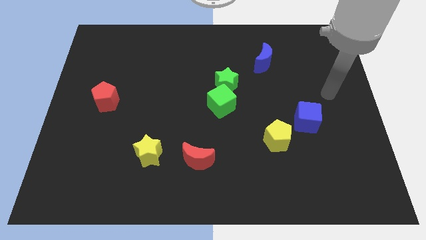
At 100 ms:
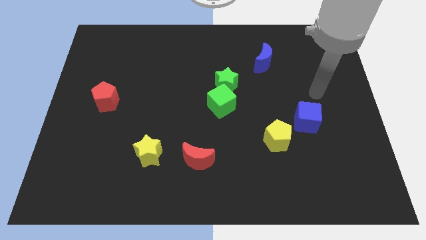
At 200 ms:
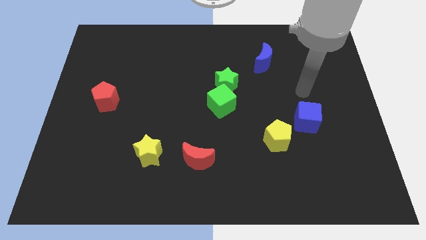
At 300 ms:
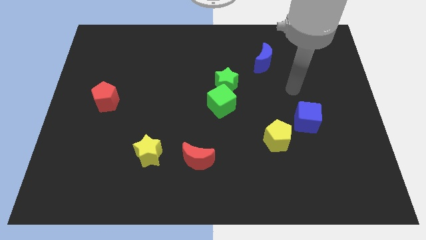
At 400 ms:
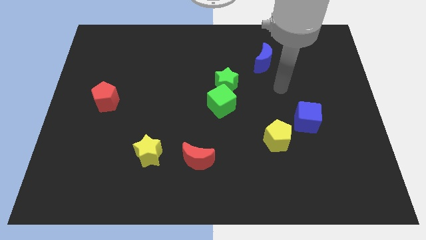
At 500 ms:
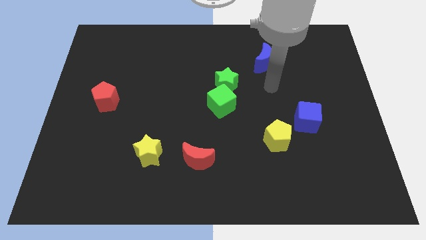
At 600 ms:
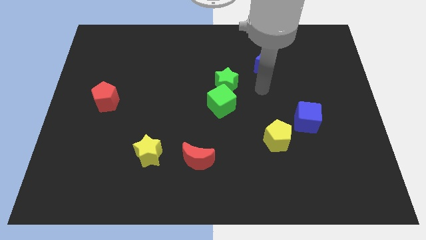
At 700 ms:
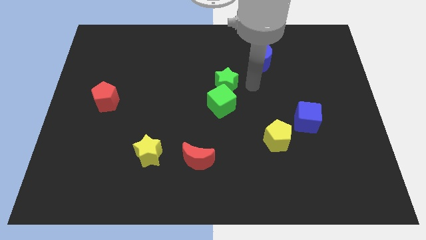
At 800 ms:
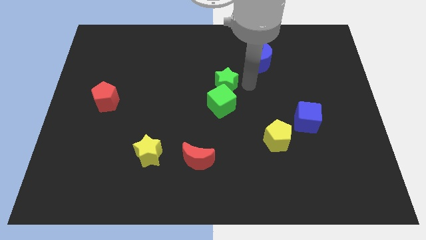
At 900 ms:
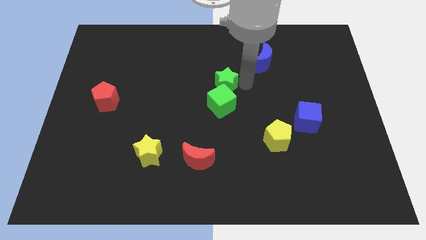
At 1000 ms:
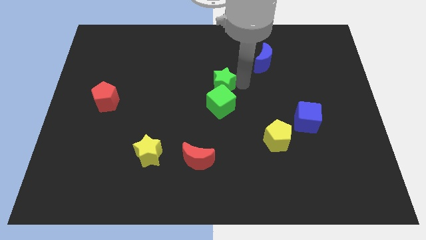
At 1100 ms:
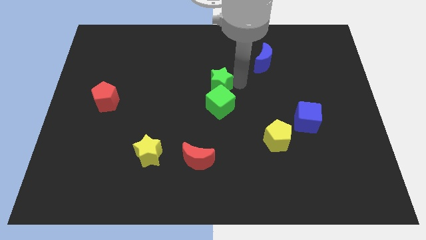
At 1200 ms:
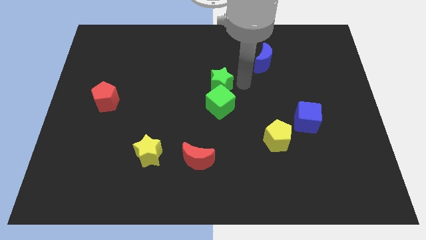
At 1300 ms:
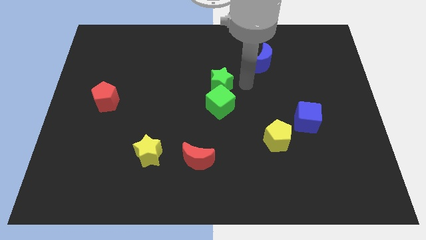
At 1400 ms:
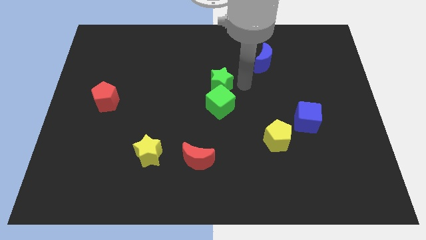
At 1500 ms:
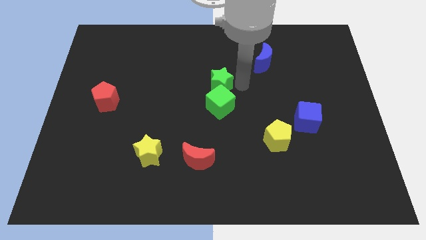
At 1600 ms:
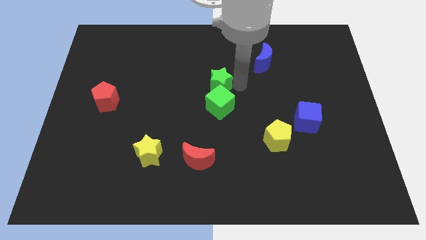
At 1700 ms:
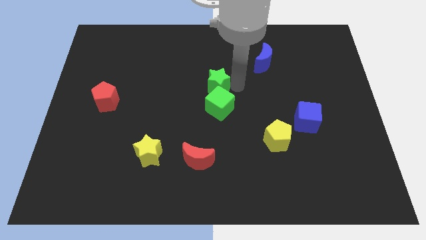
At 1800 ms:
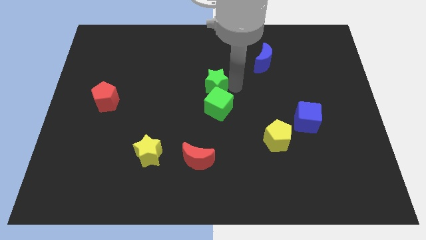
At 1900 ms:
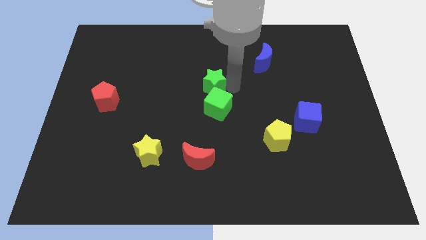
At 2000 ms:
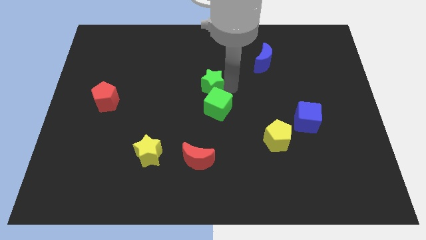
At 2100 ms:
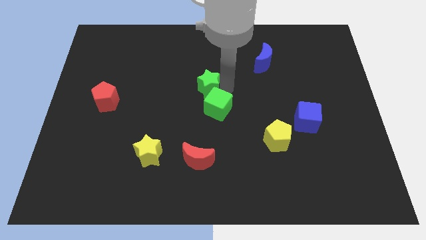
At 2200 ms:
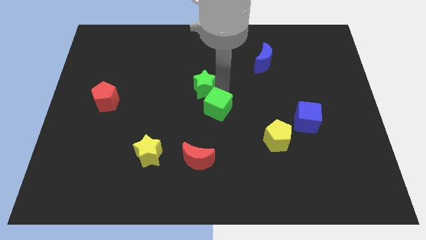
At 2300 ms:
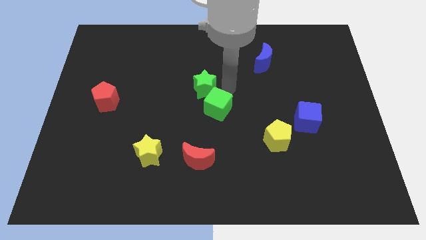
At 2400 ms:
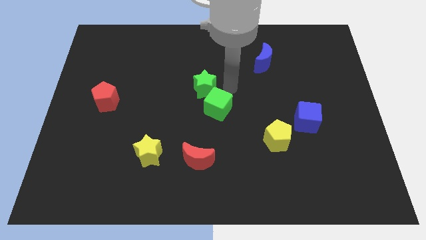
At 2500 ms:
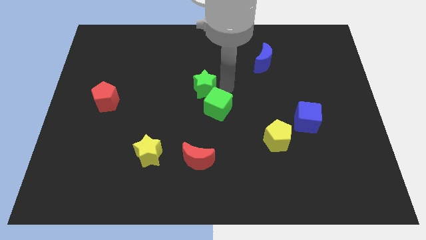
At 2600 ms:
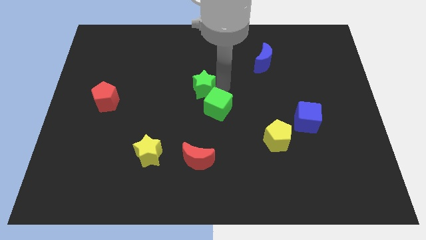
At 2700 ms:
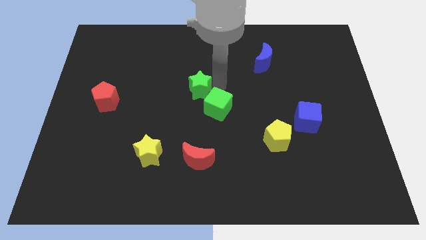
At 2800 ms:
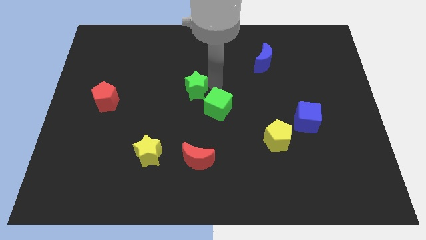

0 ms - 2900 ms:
push the green star to the left slightly

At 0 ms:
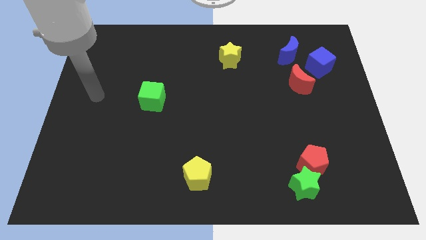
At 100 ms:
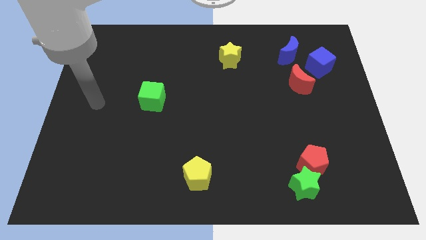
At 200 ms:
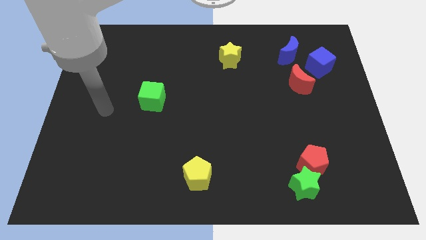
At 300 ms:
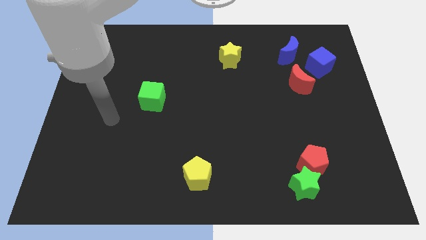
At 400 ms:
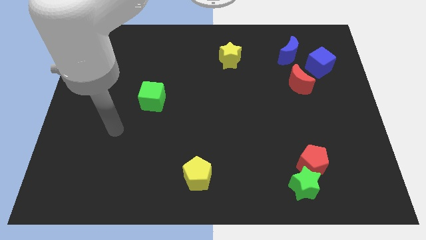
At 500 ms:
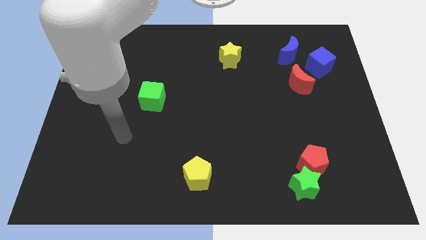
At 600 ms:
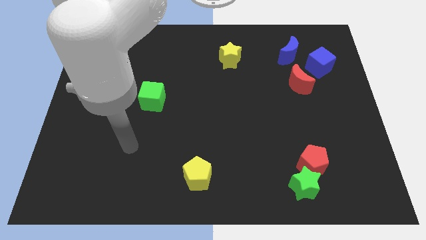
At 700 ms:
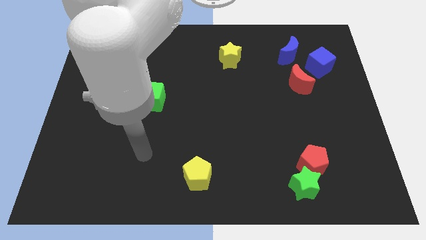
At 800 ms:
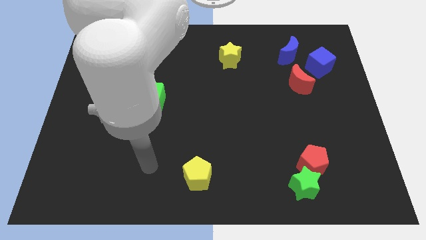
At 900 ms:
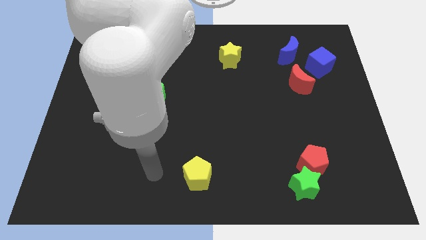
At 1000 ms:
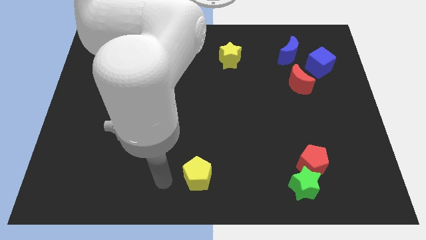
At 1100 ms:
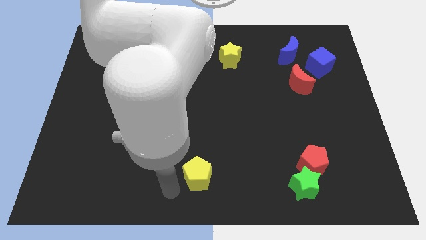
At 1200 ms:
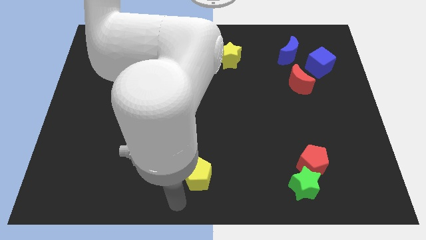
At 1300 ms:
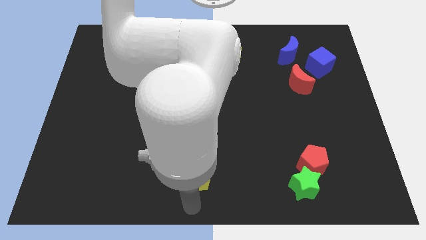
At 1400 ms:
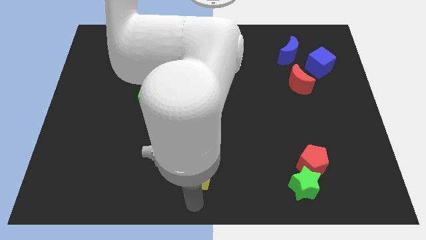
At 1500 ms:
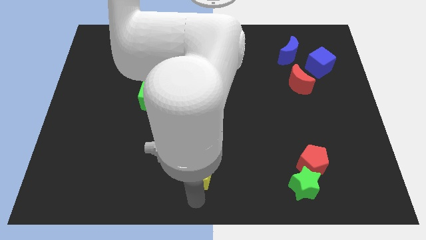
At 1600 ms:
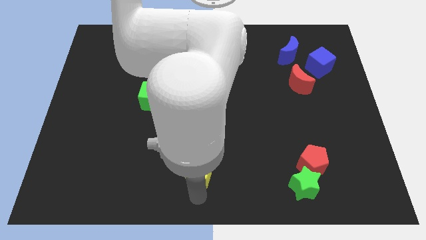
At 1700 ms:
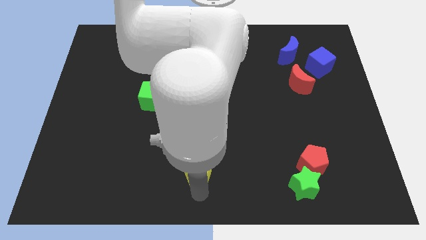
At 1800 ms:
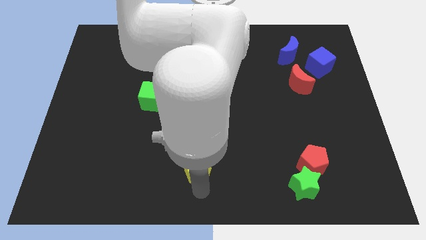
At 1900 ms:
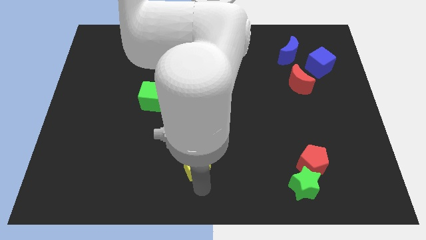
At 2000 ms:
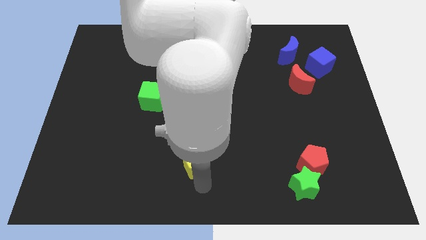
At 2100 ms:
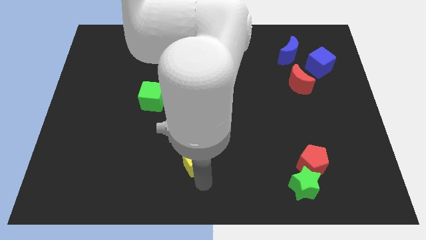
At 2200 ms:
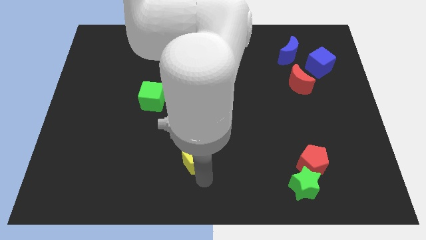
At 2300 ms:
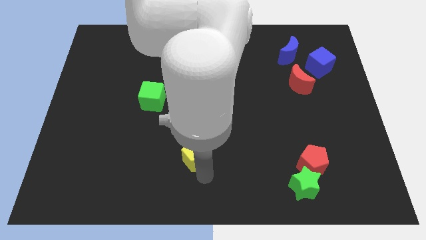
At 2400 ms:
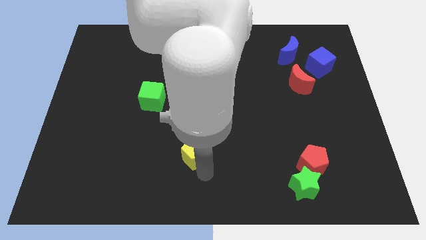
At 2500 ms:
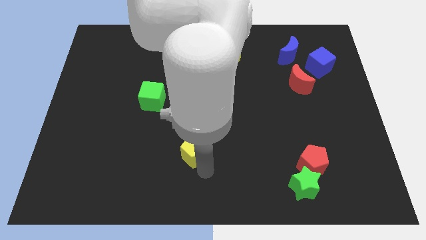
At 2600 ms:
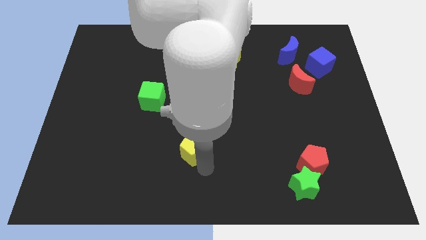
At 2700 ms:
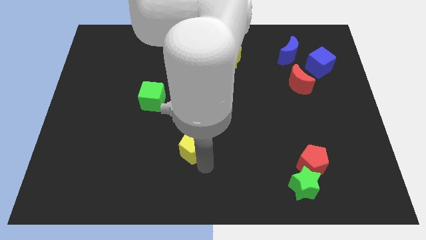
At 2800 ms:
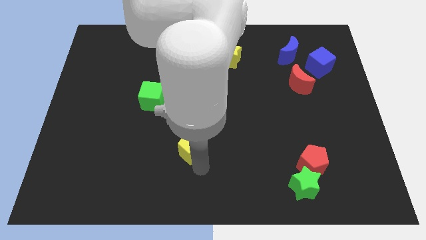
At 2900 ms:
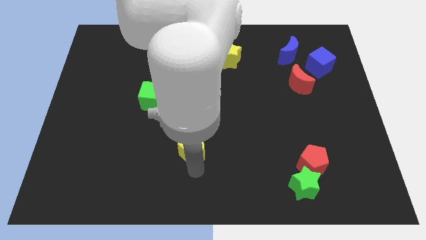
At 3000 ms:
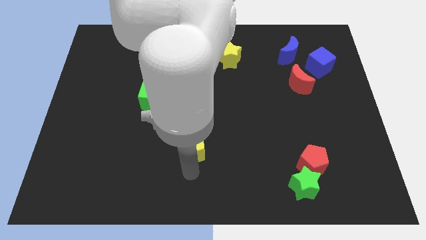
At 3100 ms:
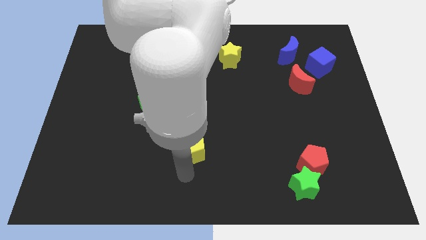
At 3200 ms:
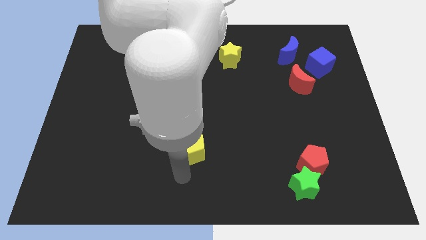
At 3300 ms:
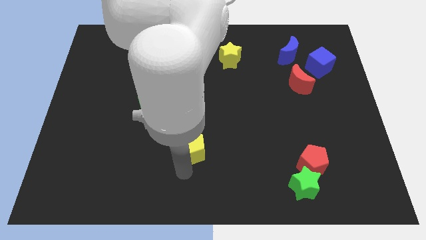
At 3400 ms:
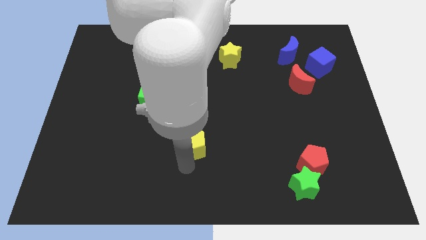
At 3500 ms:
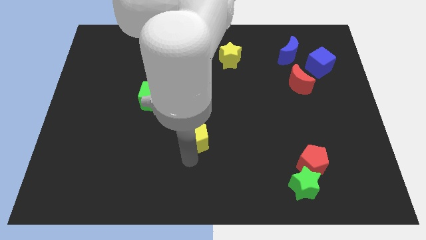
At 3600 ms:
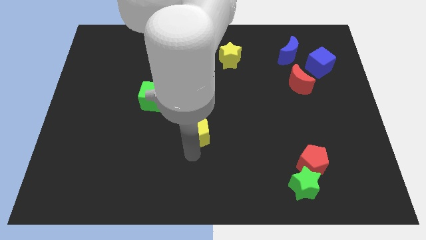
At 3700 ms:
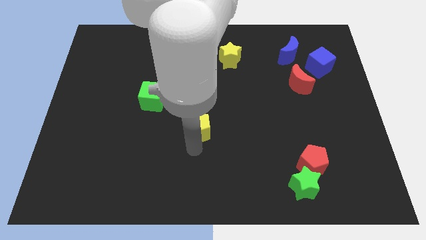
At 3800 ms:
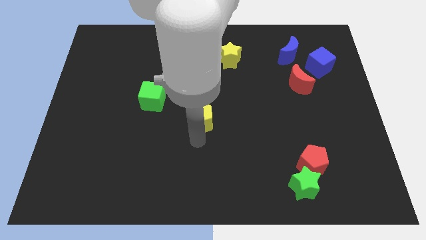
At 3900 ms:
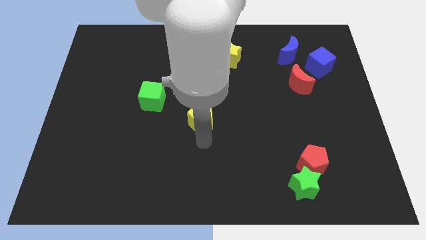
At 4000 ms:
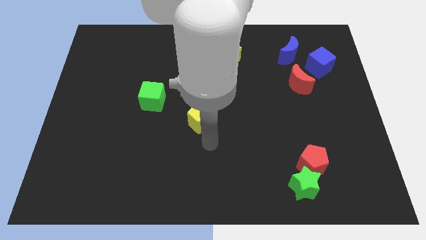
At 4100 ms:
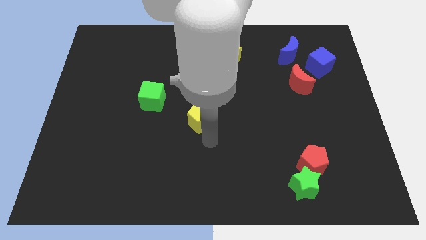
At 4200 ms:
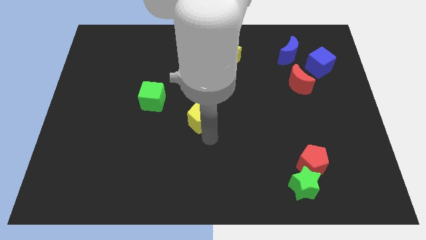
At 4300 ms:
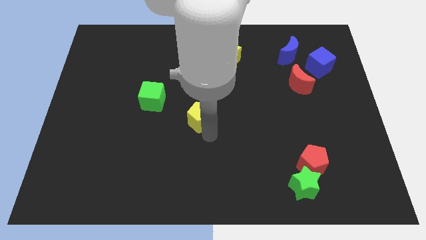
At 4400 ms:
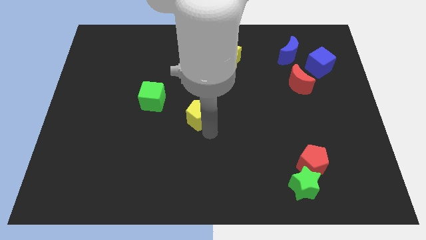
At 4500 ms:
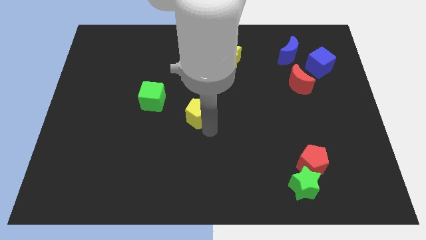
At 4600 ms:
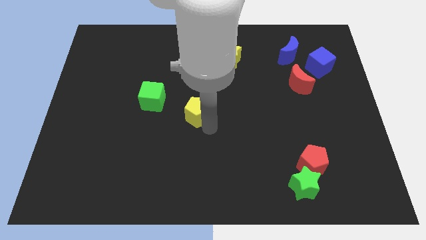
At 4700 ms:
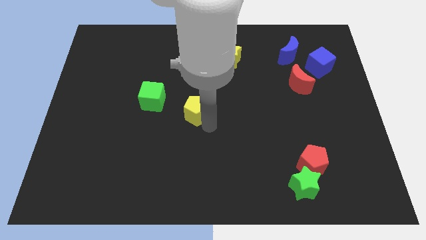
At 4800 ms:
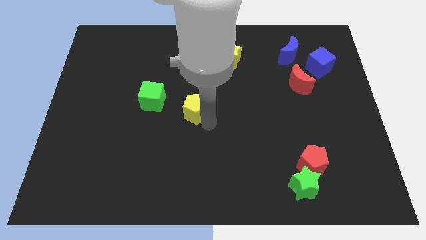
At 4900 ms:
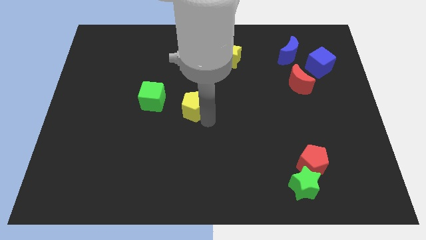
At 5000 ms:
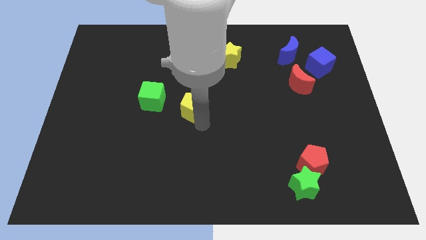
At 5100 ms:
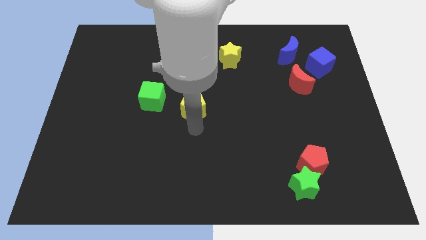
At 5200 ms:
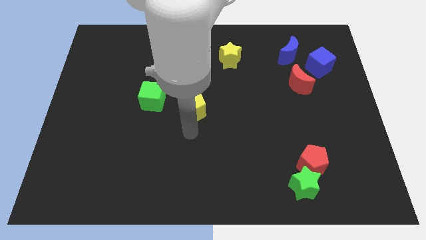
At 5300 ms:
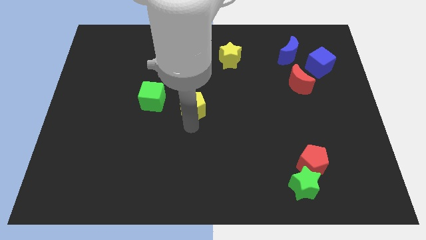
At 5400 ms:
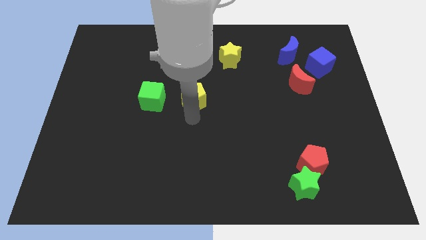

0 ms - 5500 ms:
move the yellow pentagon up

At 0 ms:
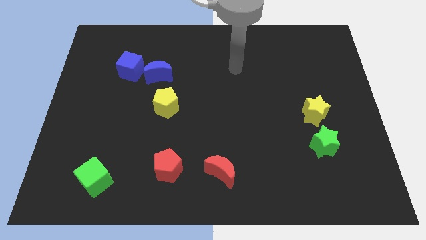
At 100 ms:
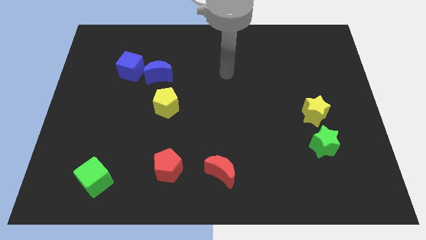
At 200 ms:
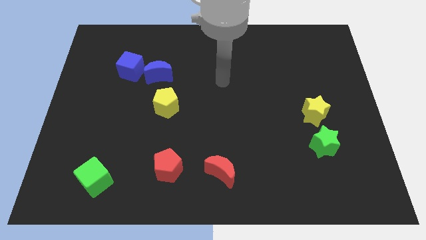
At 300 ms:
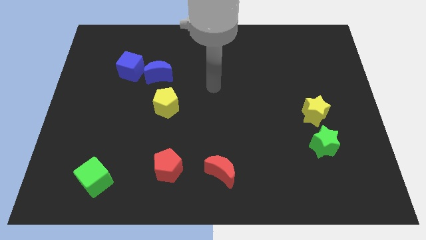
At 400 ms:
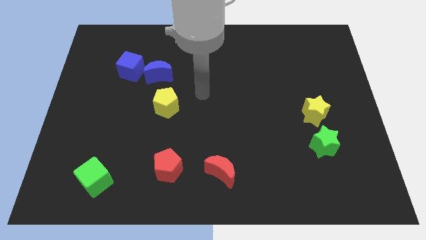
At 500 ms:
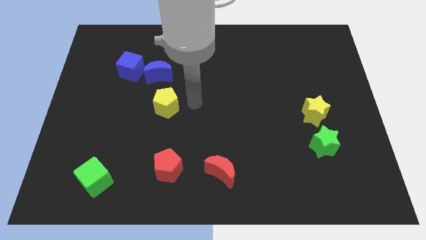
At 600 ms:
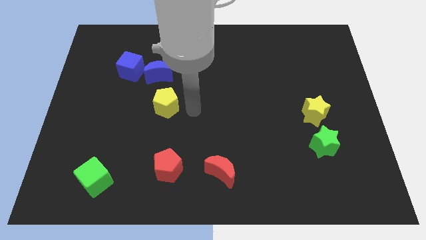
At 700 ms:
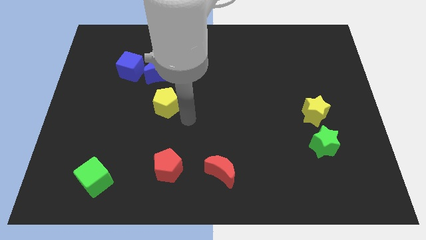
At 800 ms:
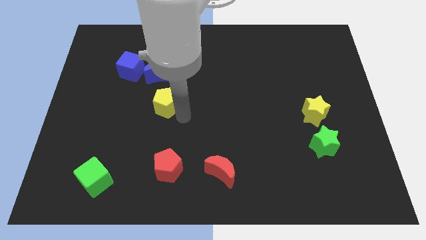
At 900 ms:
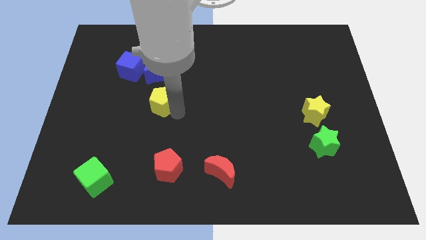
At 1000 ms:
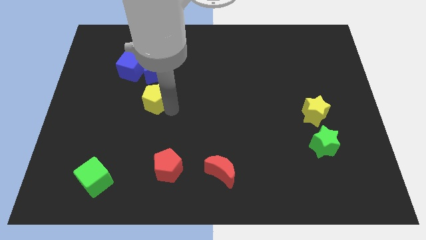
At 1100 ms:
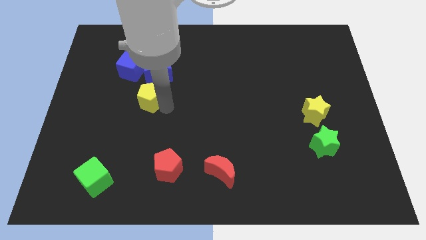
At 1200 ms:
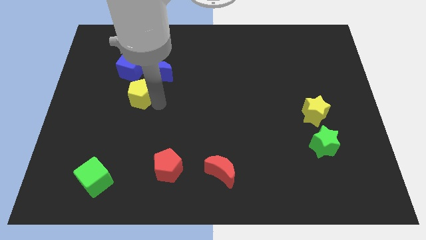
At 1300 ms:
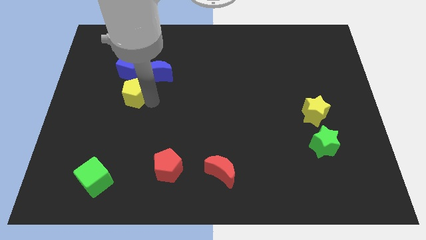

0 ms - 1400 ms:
move the yellow pentagon up and left a bit
